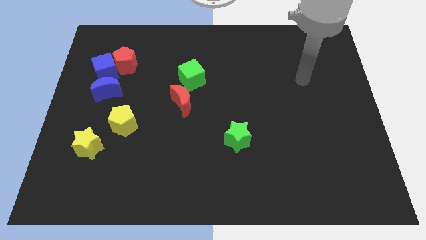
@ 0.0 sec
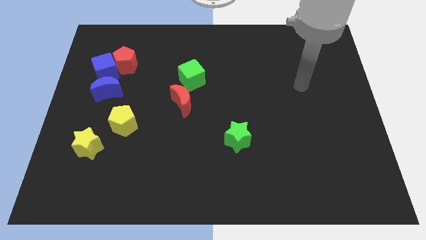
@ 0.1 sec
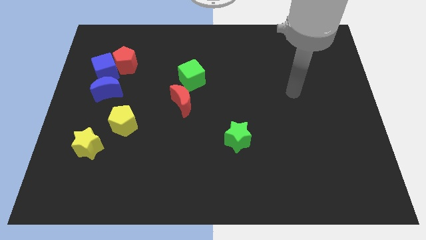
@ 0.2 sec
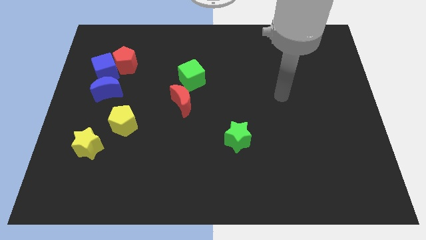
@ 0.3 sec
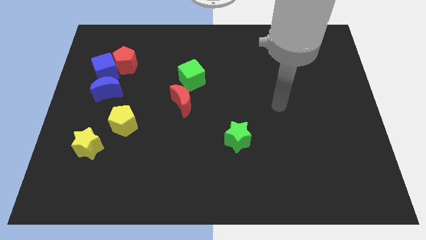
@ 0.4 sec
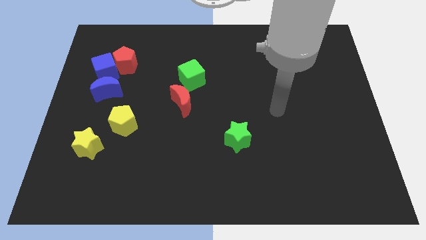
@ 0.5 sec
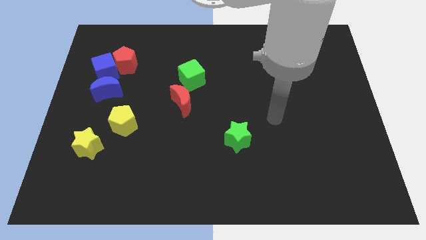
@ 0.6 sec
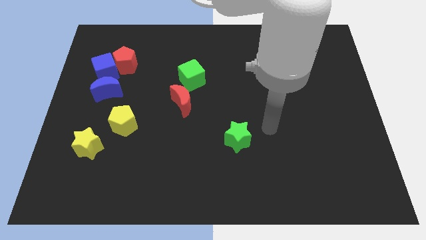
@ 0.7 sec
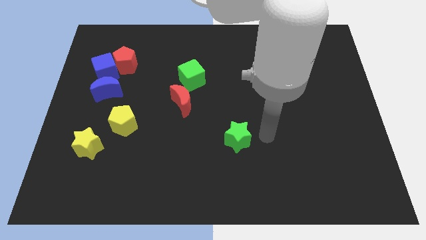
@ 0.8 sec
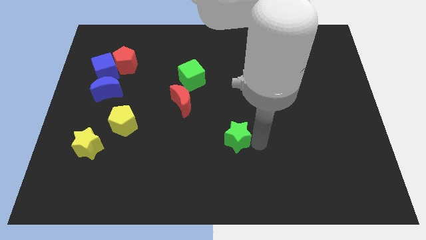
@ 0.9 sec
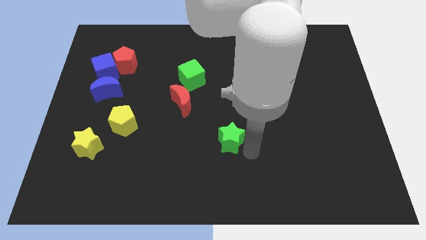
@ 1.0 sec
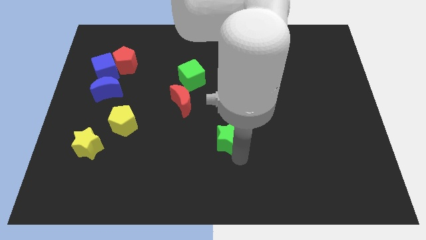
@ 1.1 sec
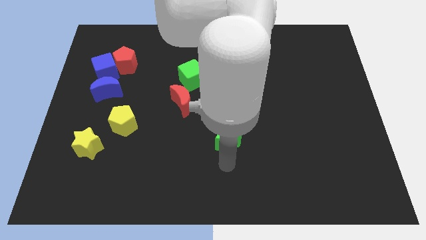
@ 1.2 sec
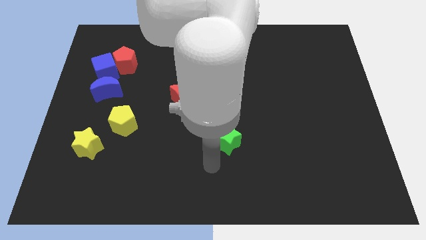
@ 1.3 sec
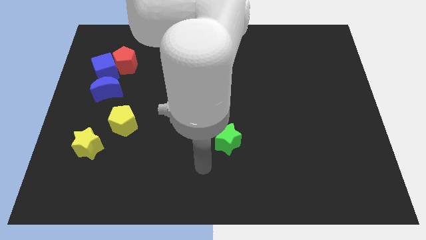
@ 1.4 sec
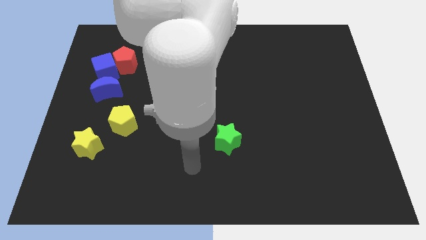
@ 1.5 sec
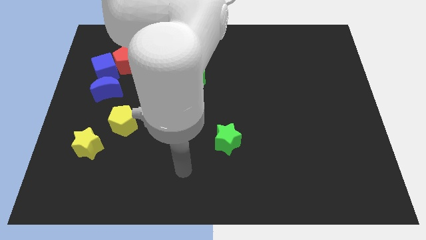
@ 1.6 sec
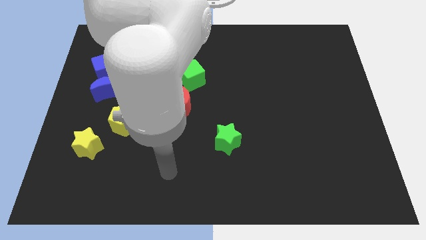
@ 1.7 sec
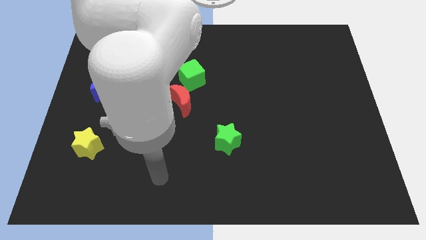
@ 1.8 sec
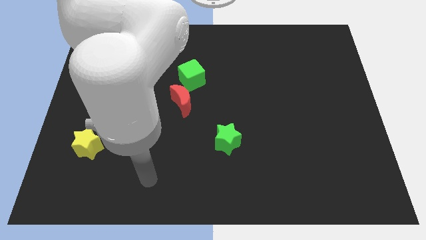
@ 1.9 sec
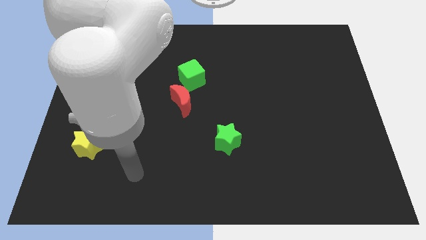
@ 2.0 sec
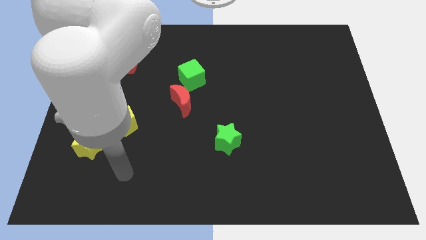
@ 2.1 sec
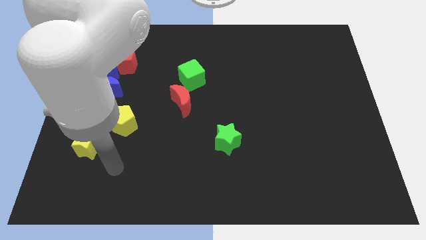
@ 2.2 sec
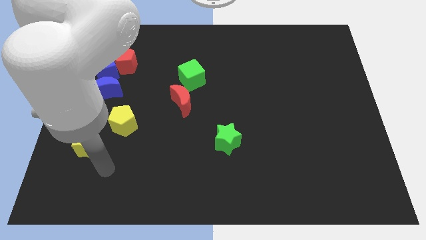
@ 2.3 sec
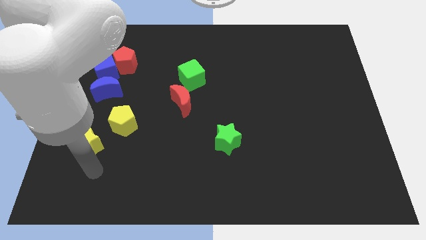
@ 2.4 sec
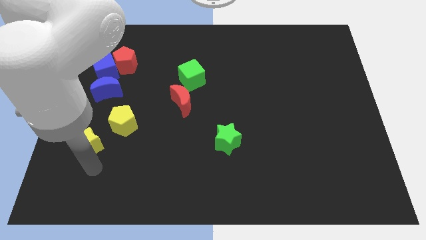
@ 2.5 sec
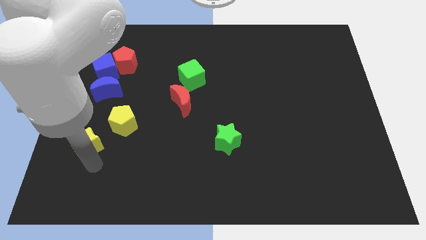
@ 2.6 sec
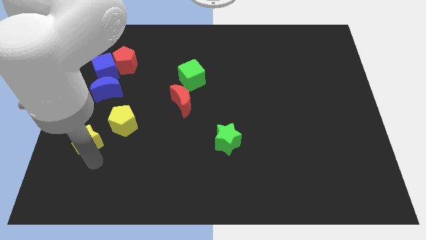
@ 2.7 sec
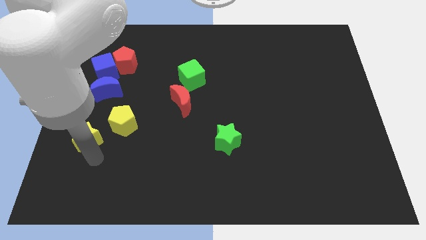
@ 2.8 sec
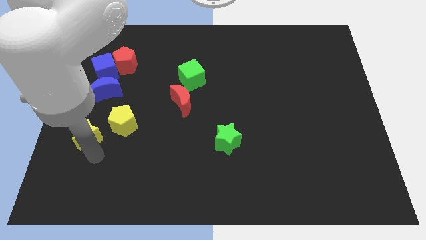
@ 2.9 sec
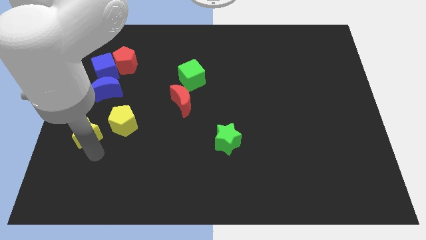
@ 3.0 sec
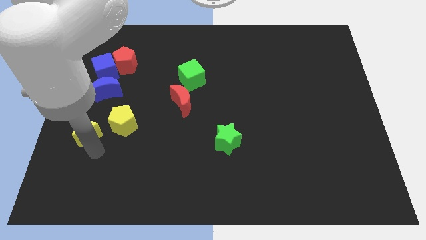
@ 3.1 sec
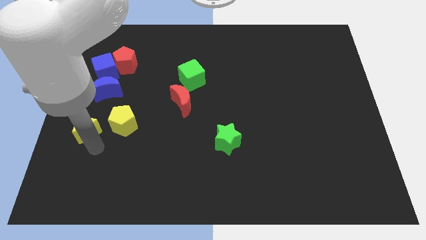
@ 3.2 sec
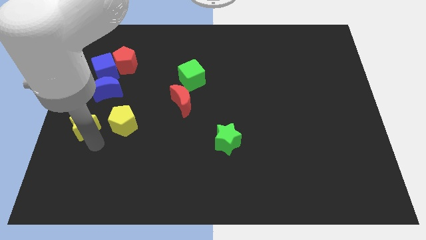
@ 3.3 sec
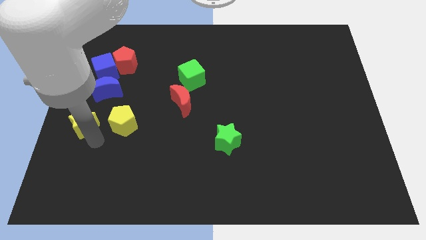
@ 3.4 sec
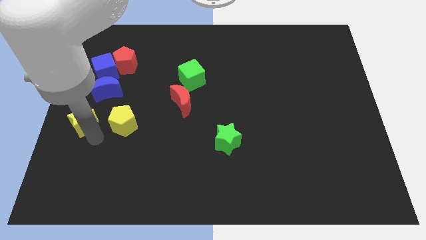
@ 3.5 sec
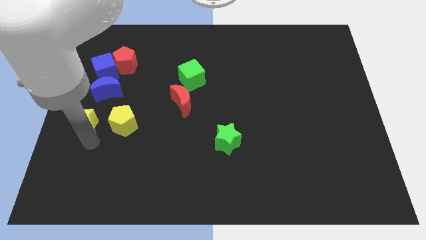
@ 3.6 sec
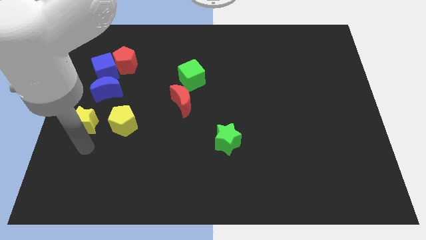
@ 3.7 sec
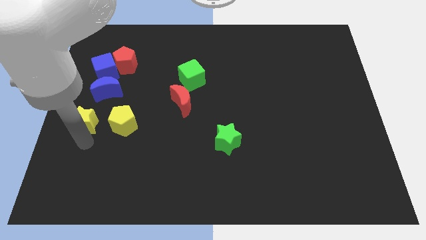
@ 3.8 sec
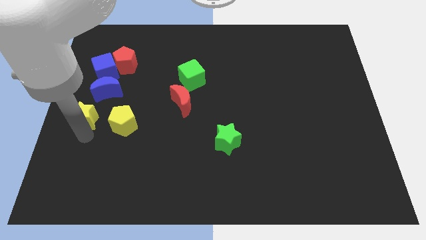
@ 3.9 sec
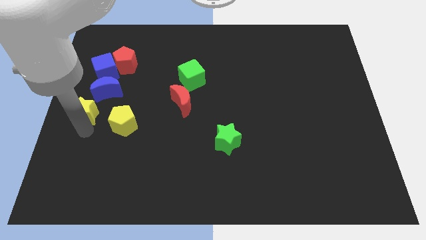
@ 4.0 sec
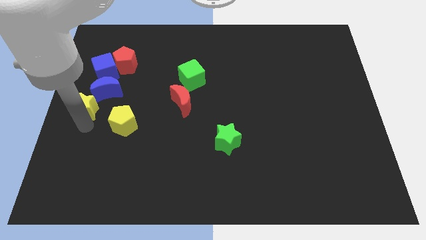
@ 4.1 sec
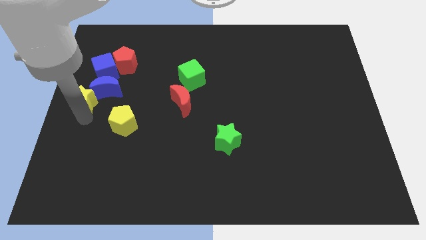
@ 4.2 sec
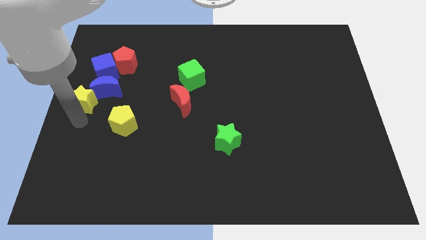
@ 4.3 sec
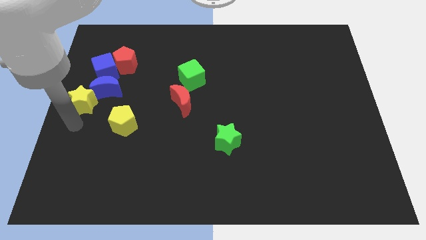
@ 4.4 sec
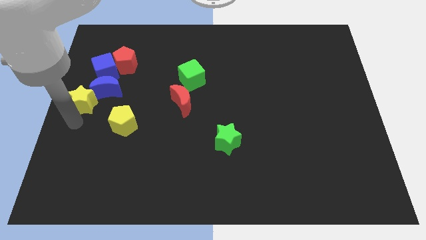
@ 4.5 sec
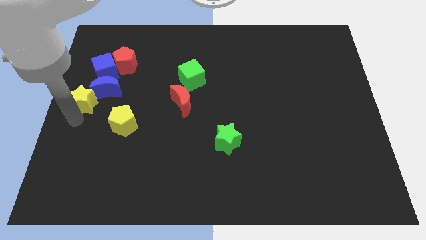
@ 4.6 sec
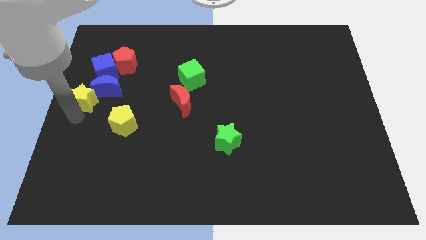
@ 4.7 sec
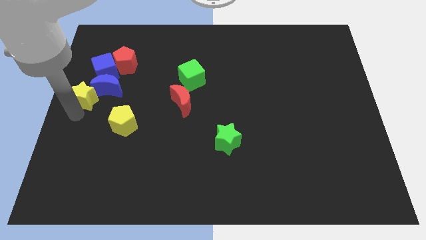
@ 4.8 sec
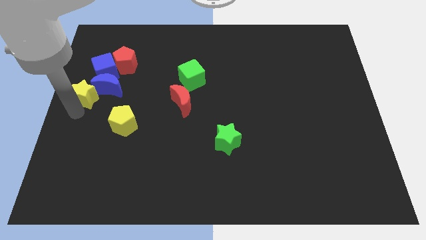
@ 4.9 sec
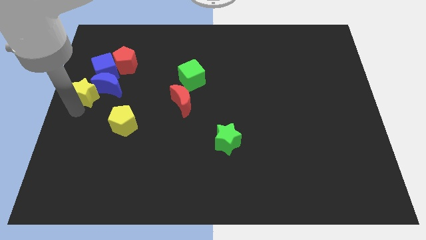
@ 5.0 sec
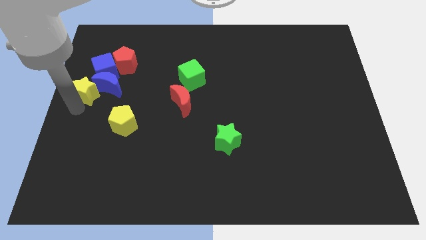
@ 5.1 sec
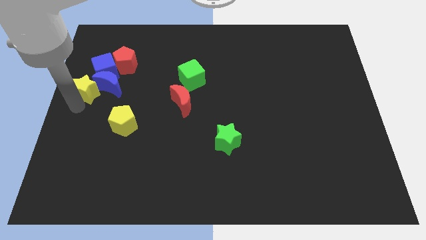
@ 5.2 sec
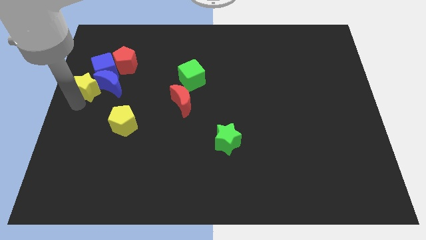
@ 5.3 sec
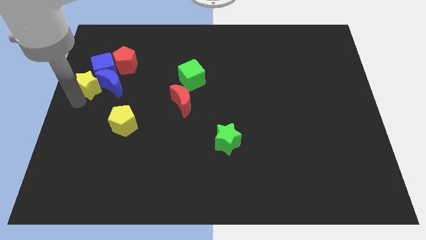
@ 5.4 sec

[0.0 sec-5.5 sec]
push the yellow star towards the blue cube

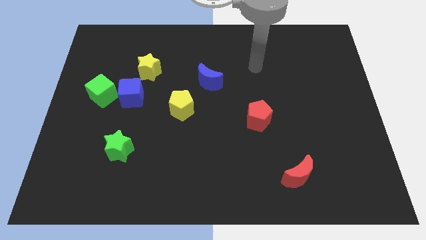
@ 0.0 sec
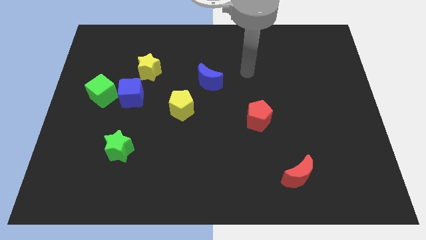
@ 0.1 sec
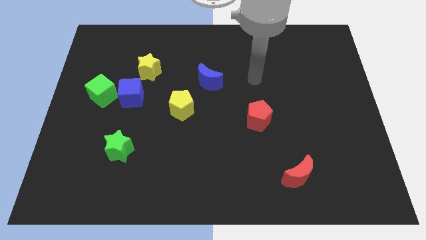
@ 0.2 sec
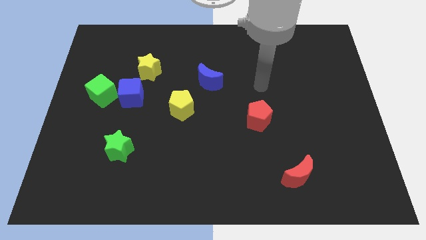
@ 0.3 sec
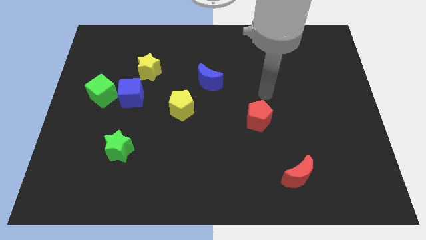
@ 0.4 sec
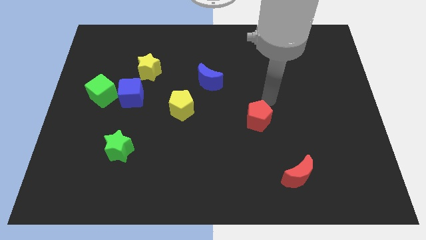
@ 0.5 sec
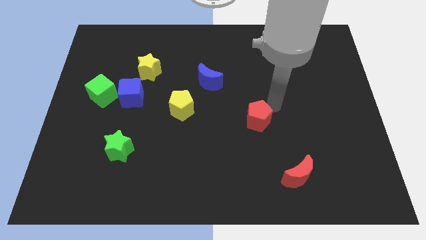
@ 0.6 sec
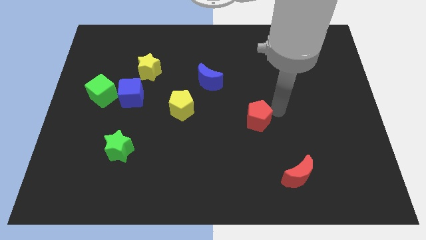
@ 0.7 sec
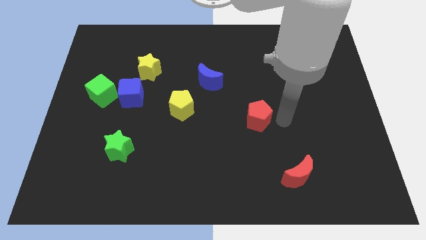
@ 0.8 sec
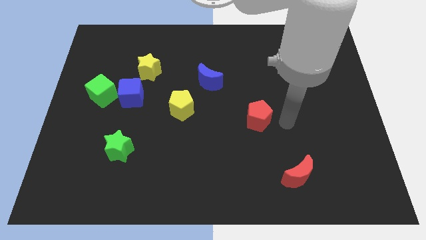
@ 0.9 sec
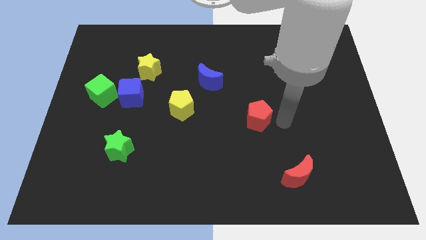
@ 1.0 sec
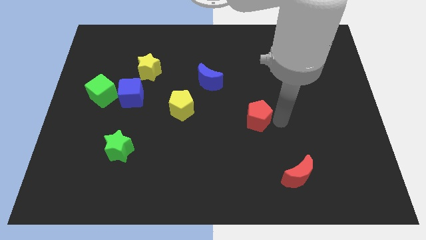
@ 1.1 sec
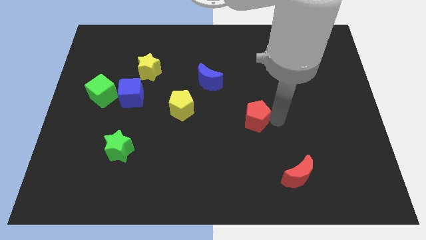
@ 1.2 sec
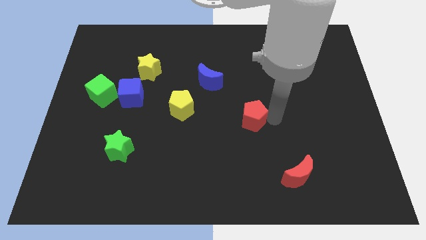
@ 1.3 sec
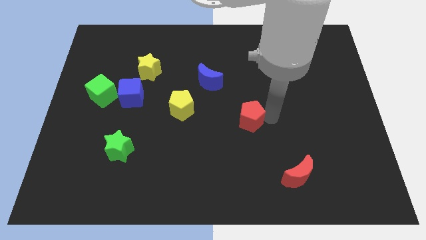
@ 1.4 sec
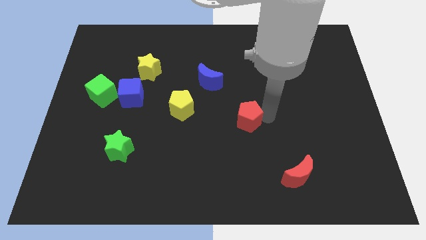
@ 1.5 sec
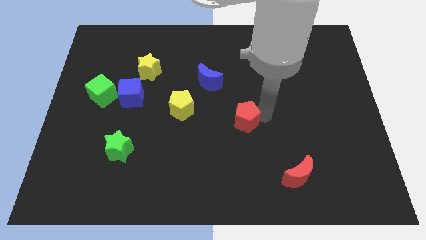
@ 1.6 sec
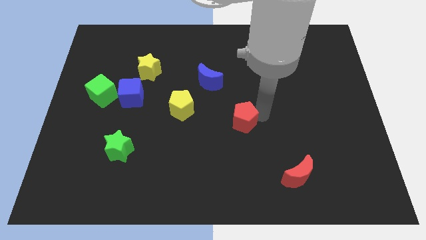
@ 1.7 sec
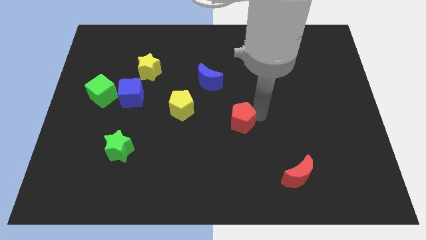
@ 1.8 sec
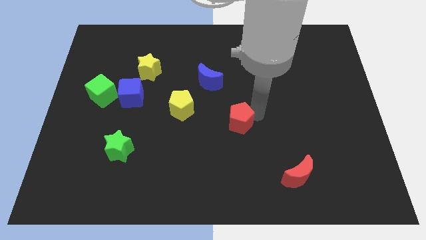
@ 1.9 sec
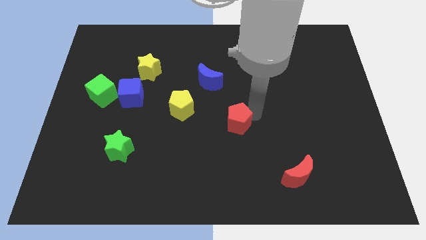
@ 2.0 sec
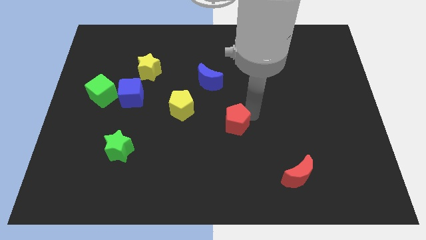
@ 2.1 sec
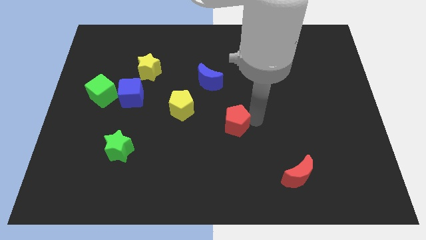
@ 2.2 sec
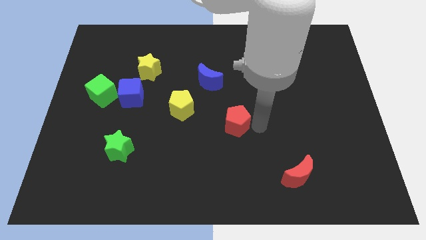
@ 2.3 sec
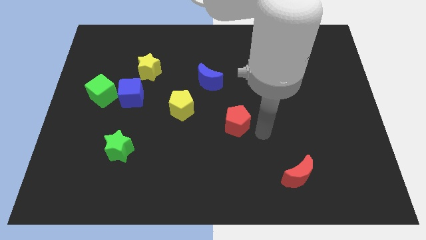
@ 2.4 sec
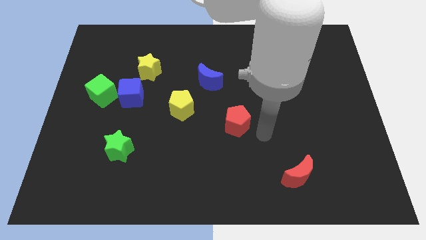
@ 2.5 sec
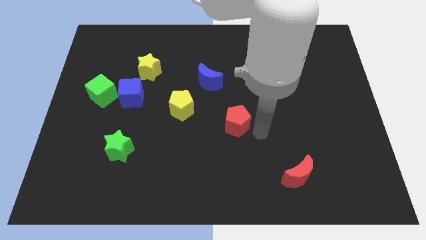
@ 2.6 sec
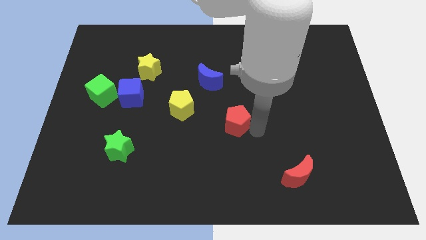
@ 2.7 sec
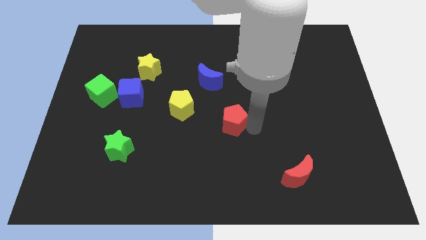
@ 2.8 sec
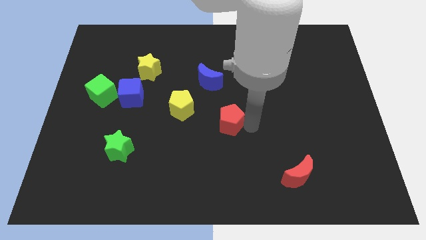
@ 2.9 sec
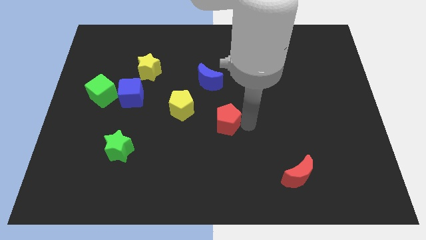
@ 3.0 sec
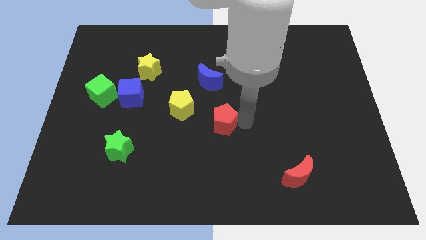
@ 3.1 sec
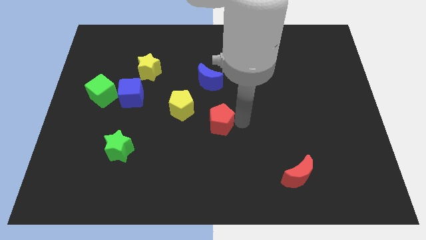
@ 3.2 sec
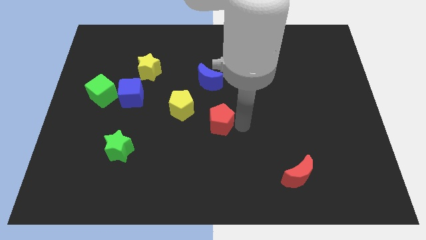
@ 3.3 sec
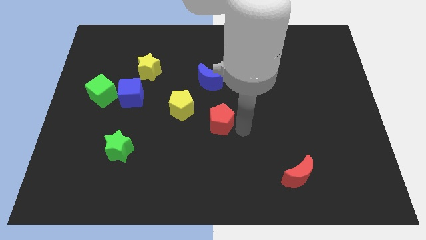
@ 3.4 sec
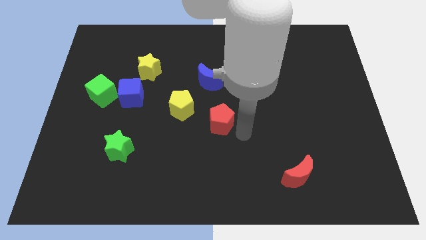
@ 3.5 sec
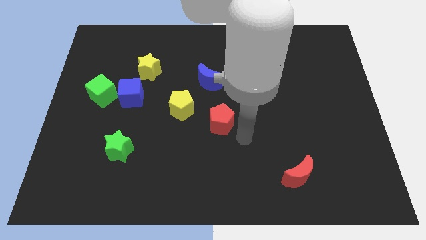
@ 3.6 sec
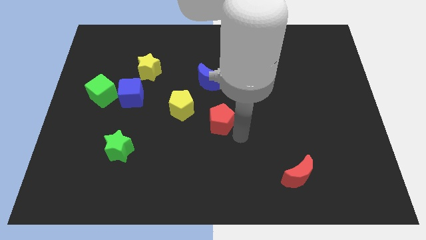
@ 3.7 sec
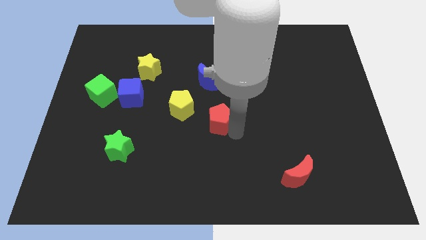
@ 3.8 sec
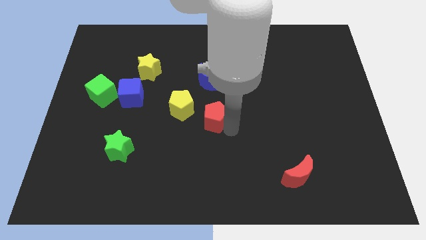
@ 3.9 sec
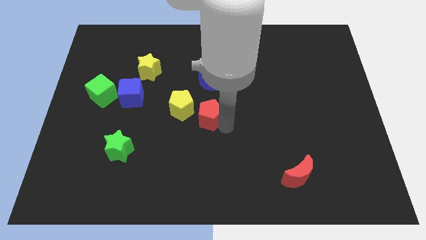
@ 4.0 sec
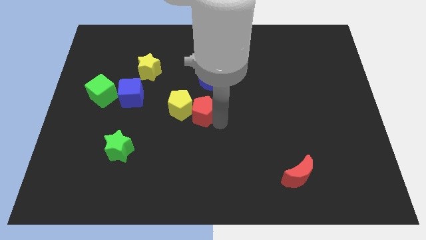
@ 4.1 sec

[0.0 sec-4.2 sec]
slide the red pentagon to the yellow pentagon
